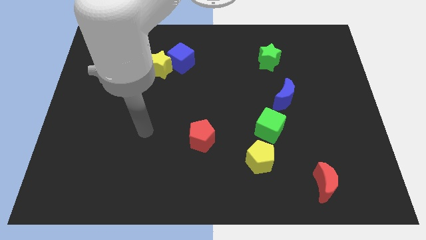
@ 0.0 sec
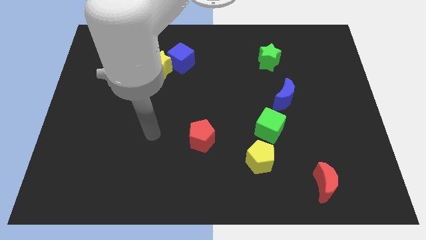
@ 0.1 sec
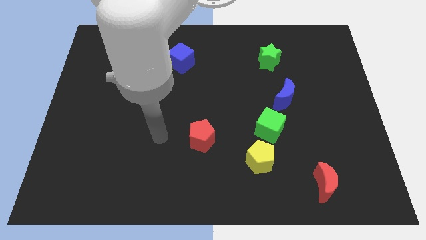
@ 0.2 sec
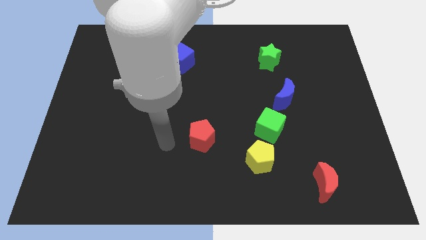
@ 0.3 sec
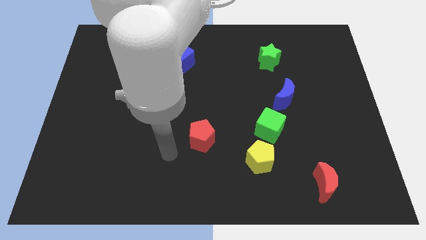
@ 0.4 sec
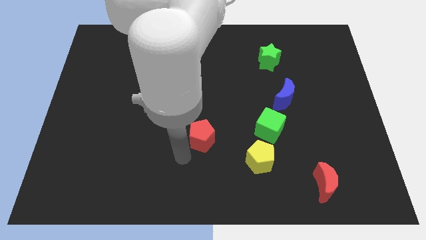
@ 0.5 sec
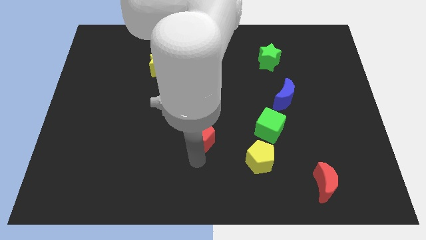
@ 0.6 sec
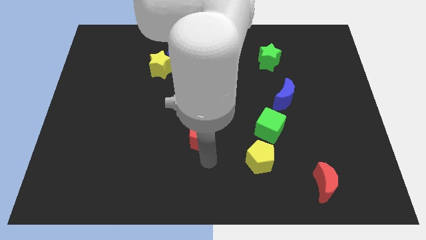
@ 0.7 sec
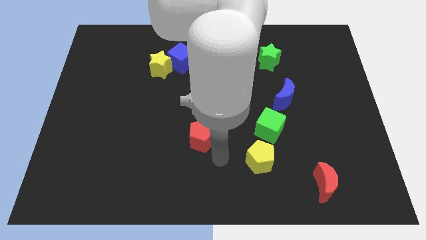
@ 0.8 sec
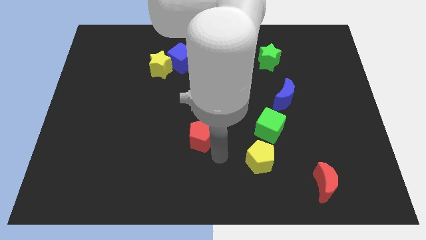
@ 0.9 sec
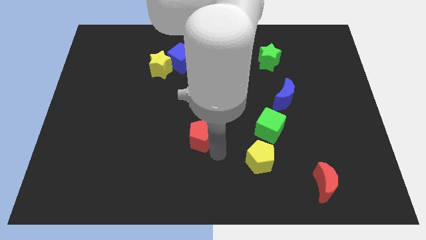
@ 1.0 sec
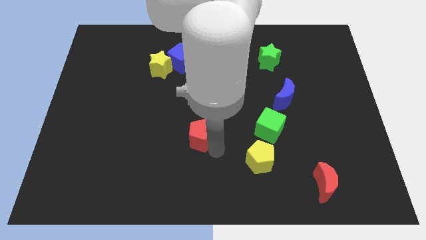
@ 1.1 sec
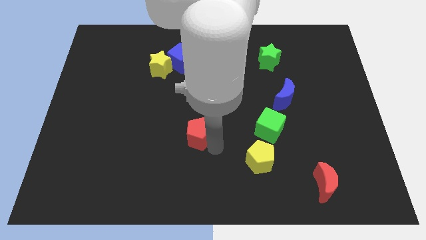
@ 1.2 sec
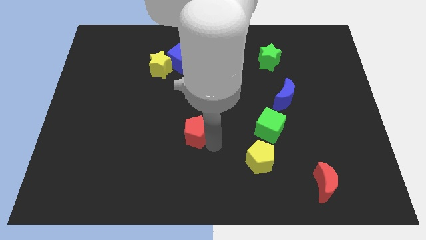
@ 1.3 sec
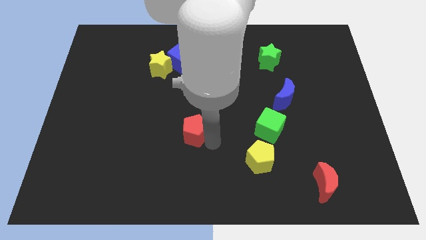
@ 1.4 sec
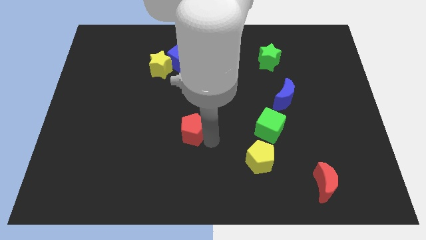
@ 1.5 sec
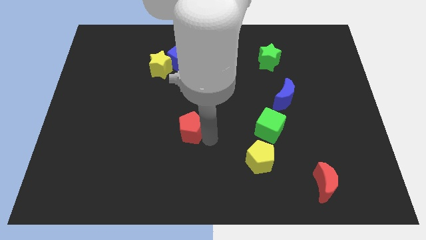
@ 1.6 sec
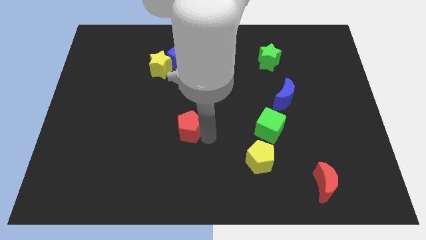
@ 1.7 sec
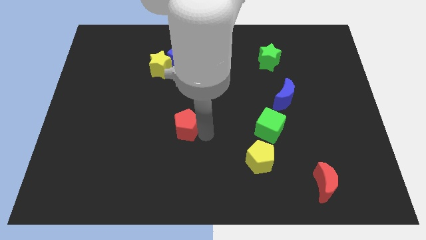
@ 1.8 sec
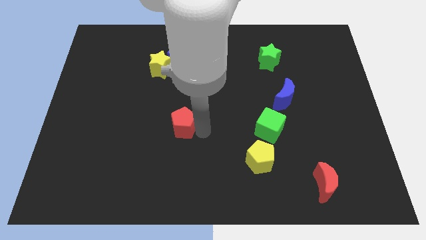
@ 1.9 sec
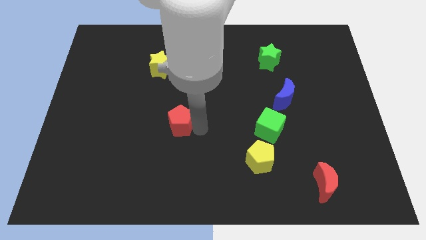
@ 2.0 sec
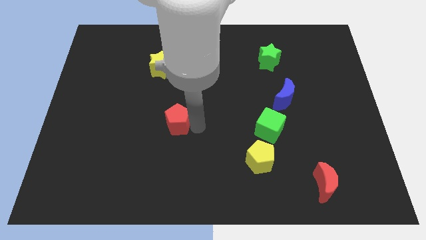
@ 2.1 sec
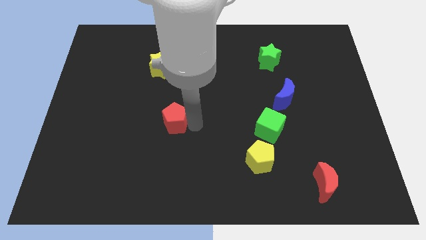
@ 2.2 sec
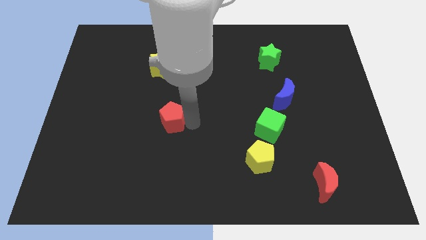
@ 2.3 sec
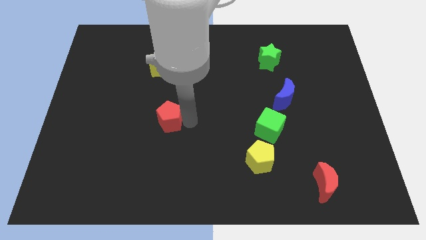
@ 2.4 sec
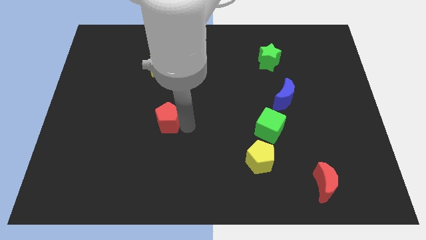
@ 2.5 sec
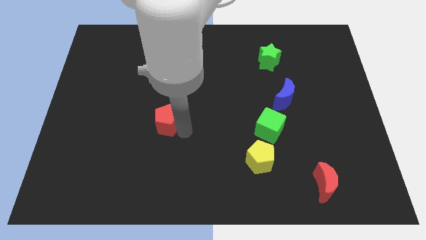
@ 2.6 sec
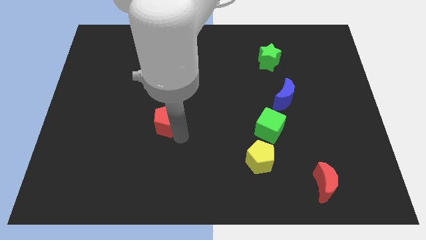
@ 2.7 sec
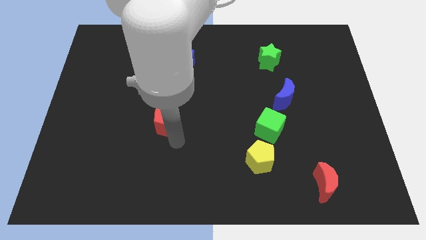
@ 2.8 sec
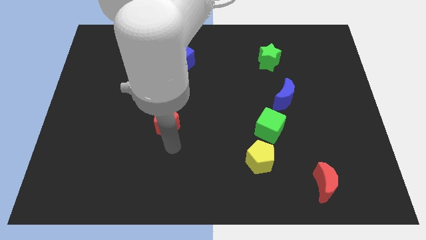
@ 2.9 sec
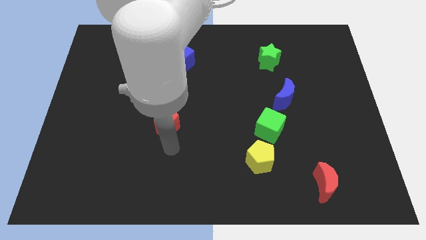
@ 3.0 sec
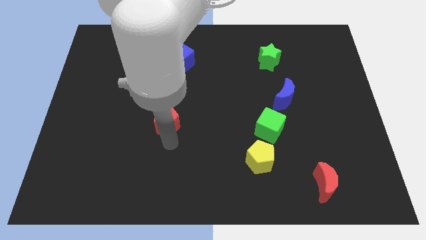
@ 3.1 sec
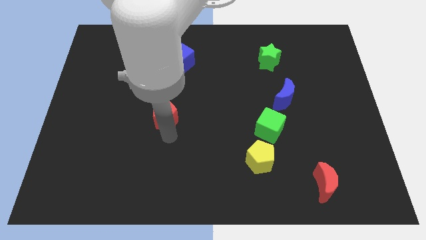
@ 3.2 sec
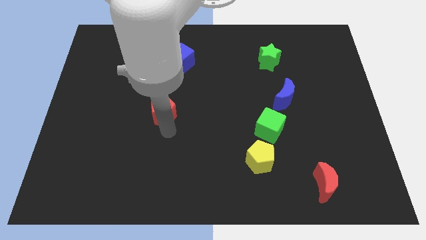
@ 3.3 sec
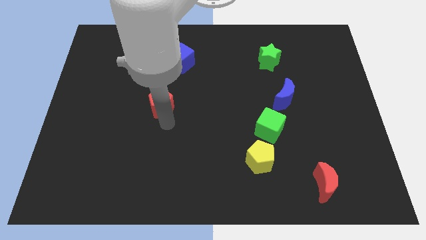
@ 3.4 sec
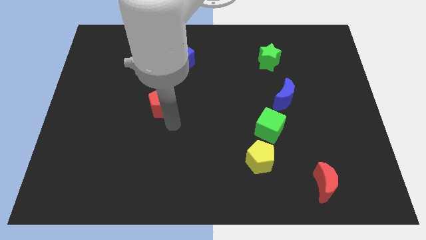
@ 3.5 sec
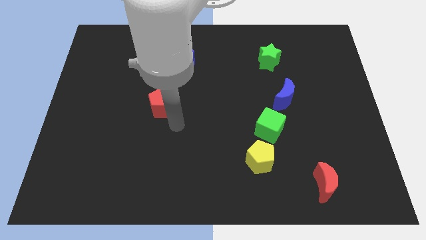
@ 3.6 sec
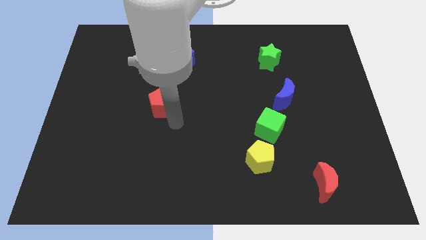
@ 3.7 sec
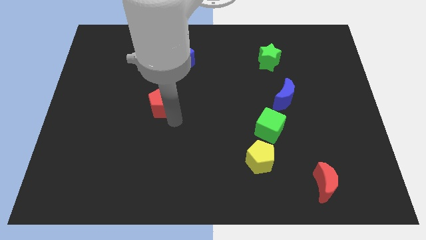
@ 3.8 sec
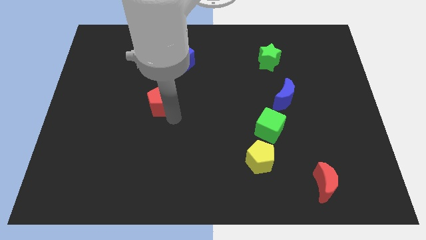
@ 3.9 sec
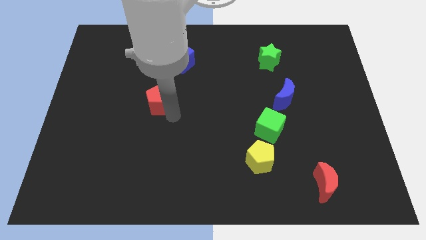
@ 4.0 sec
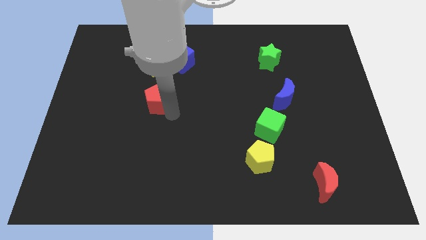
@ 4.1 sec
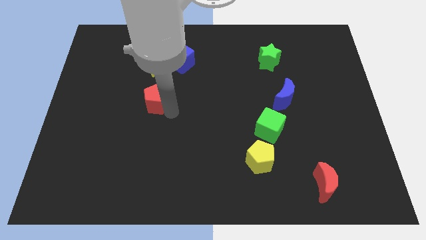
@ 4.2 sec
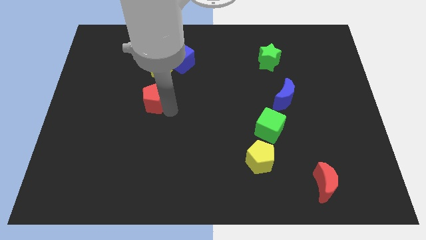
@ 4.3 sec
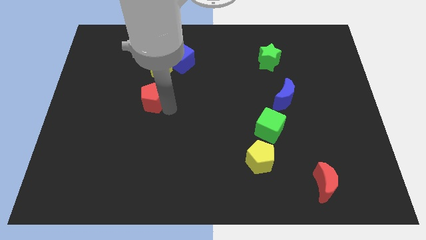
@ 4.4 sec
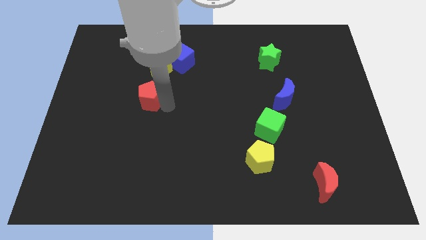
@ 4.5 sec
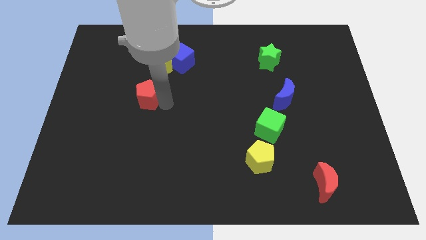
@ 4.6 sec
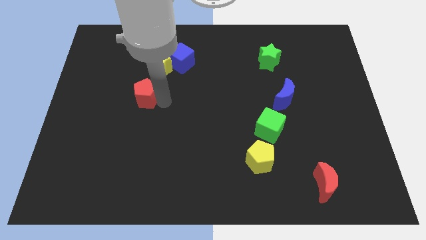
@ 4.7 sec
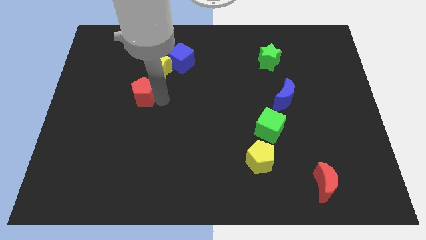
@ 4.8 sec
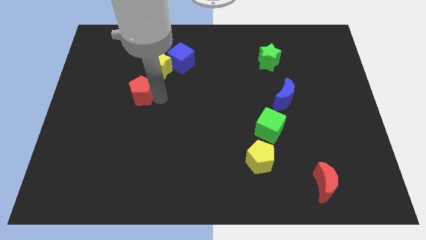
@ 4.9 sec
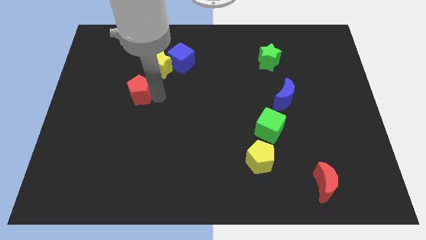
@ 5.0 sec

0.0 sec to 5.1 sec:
slide the red pentagon diagonally up and to the left

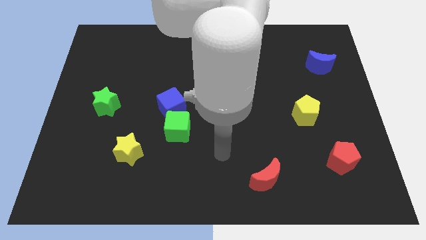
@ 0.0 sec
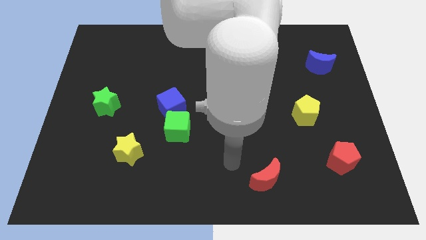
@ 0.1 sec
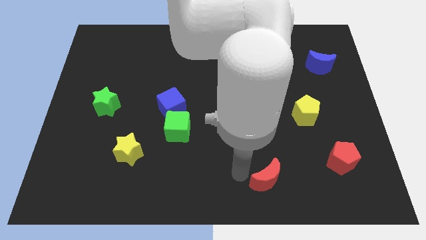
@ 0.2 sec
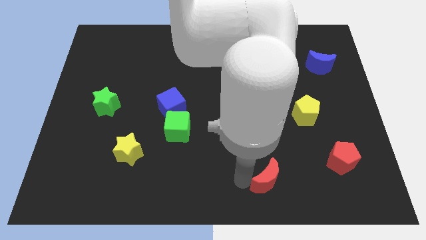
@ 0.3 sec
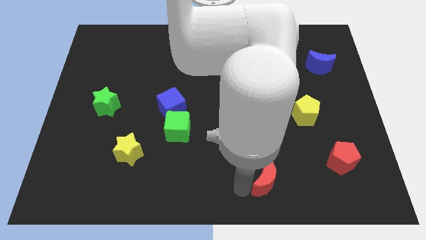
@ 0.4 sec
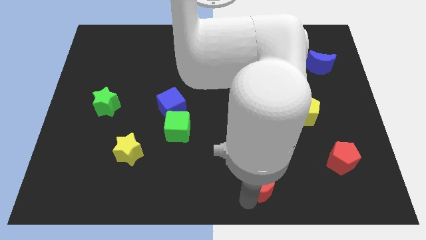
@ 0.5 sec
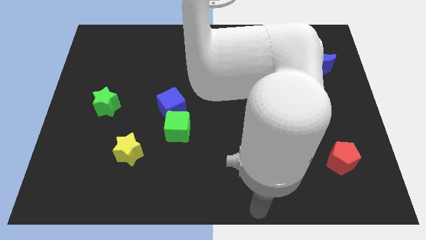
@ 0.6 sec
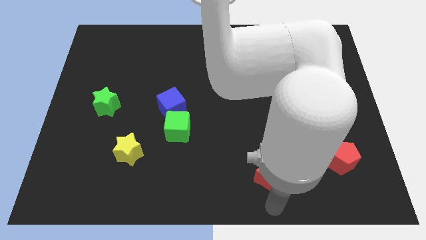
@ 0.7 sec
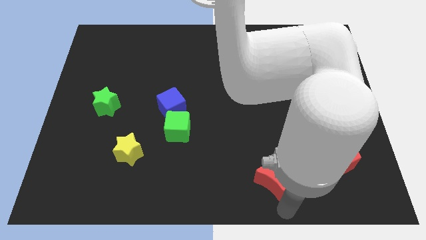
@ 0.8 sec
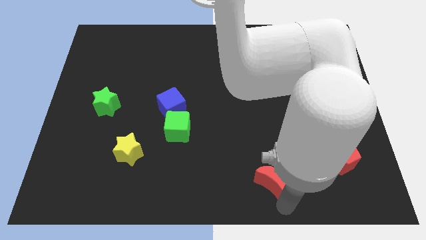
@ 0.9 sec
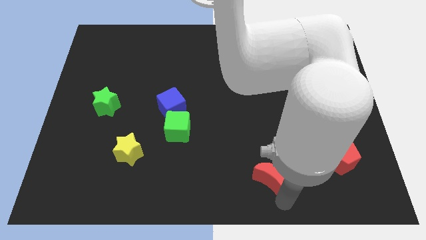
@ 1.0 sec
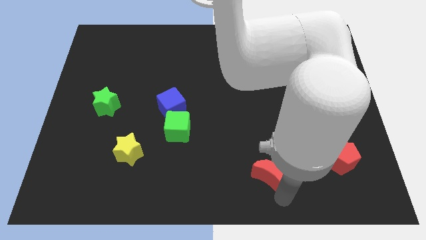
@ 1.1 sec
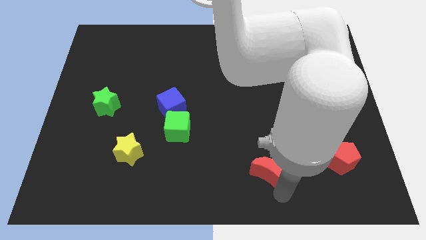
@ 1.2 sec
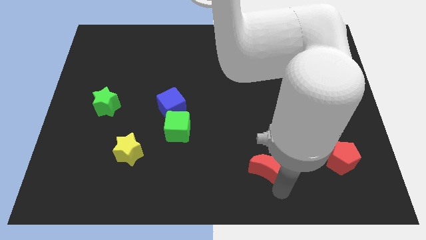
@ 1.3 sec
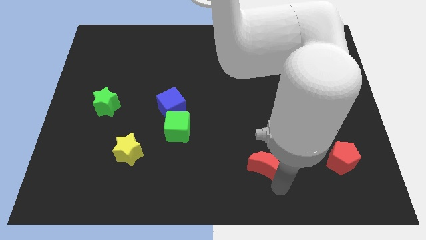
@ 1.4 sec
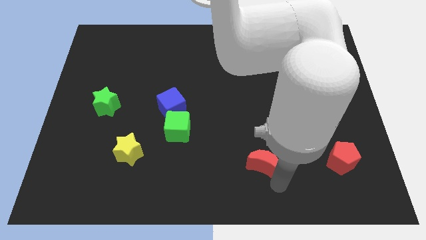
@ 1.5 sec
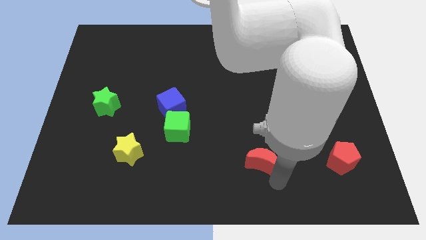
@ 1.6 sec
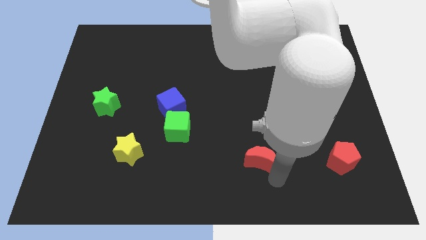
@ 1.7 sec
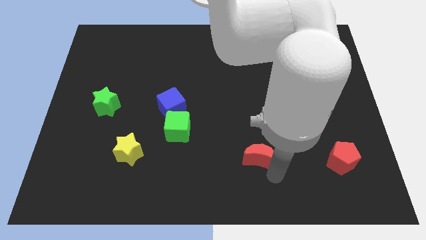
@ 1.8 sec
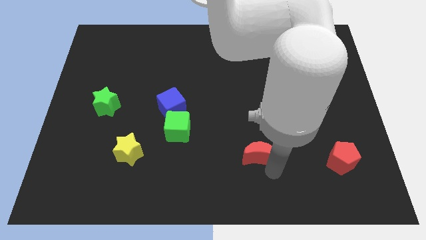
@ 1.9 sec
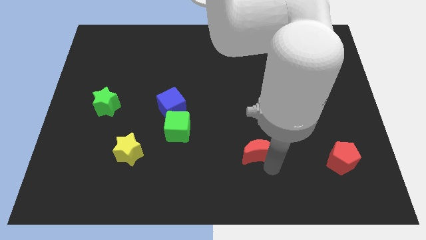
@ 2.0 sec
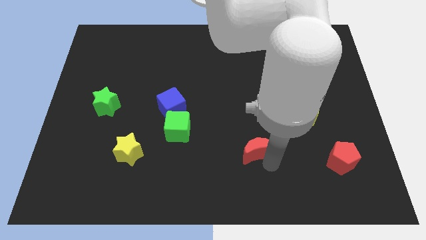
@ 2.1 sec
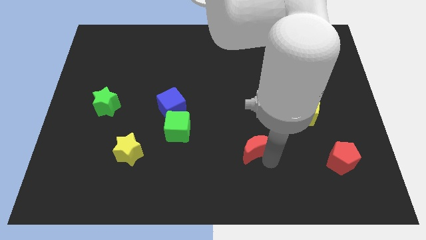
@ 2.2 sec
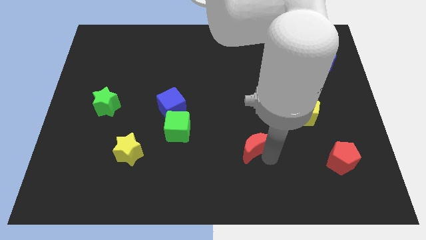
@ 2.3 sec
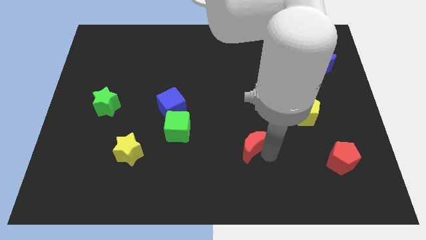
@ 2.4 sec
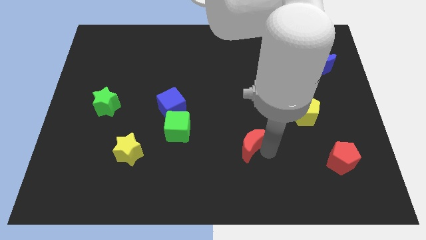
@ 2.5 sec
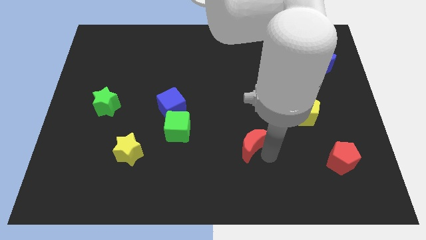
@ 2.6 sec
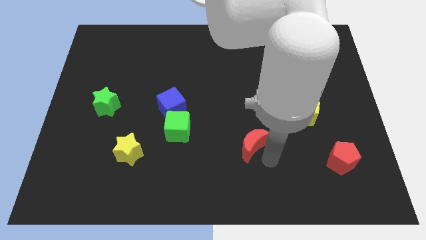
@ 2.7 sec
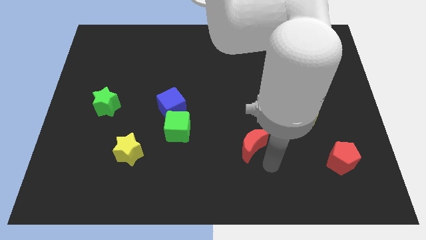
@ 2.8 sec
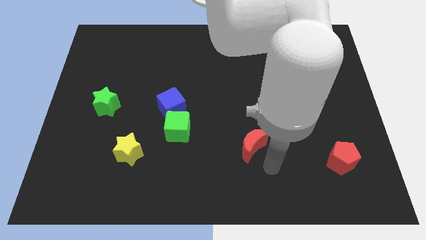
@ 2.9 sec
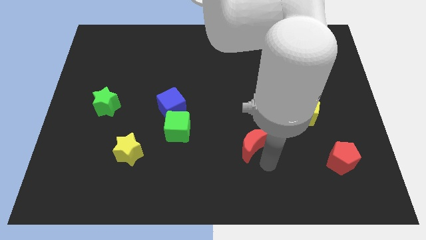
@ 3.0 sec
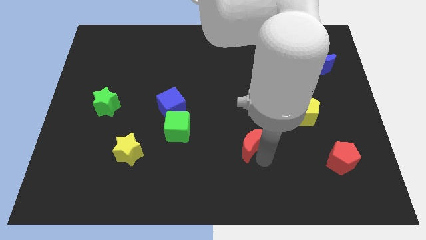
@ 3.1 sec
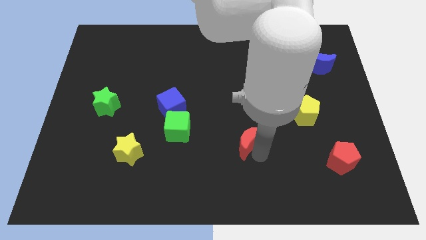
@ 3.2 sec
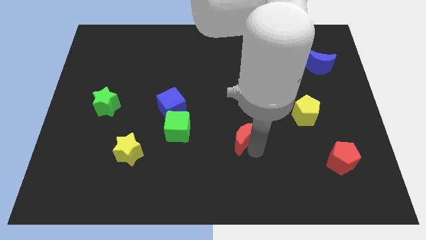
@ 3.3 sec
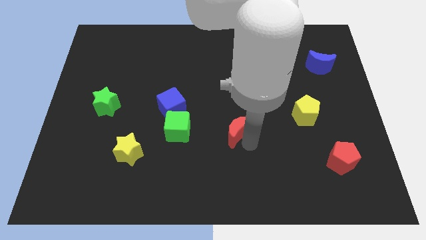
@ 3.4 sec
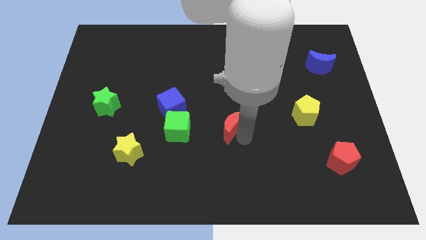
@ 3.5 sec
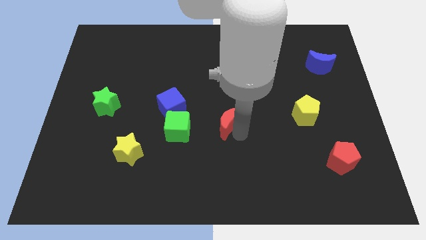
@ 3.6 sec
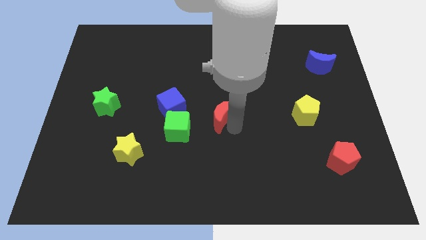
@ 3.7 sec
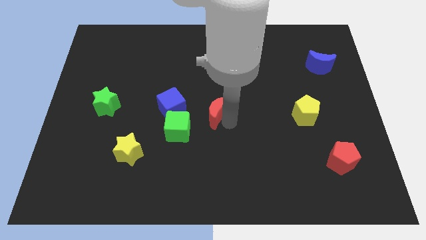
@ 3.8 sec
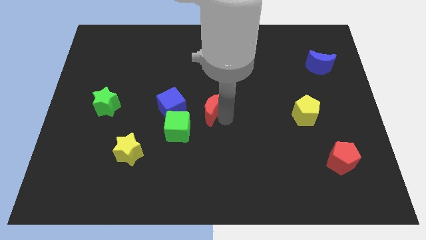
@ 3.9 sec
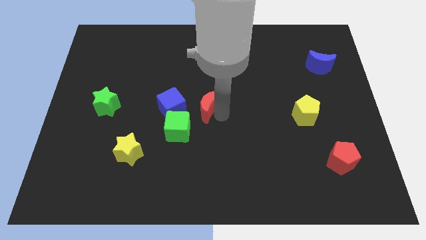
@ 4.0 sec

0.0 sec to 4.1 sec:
push the red moon diagonally upwards and to the left
